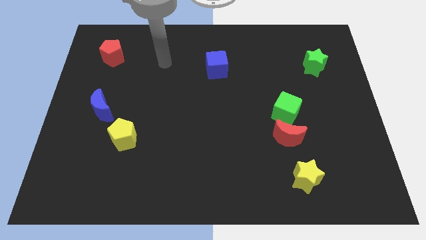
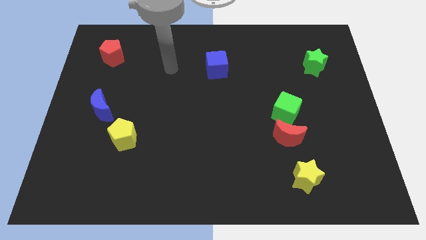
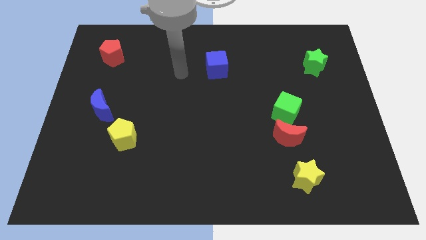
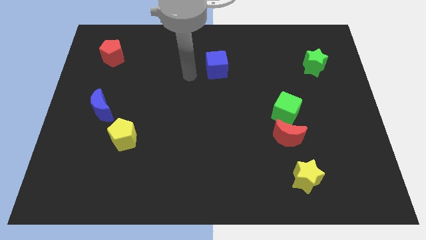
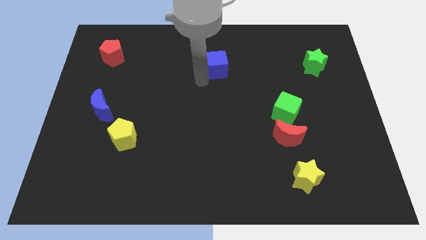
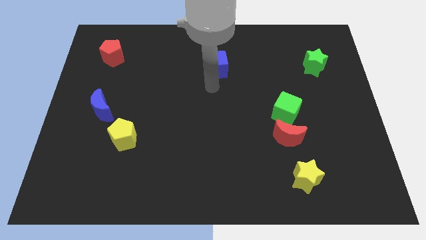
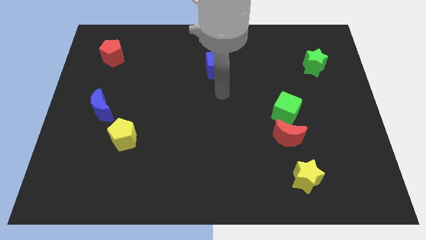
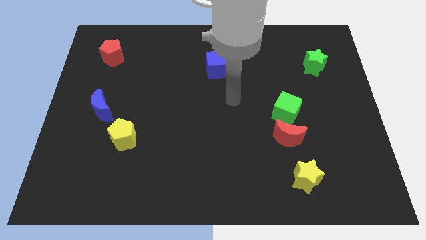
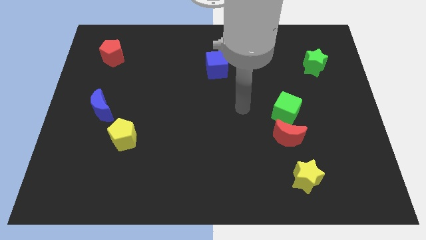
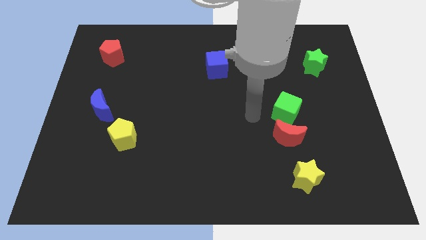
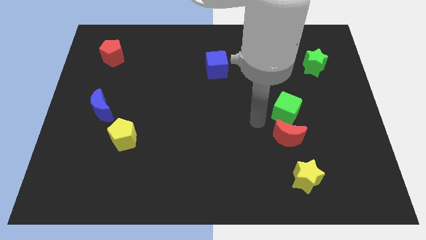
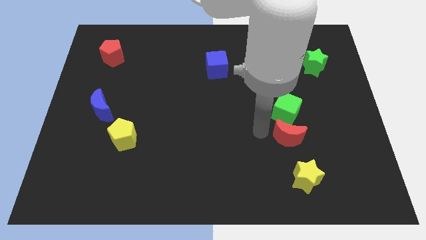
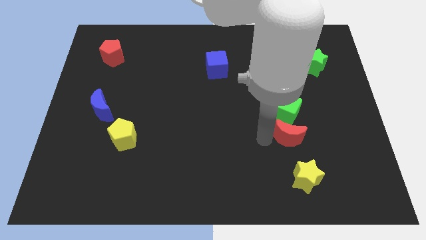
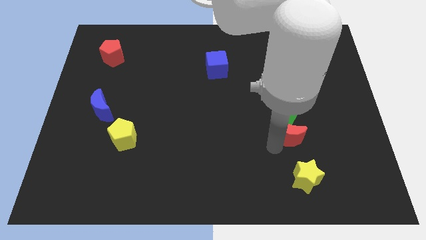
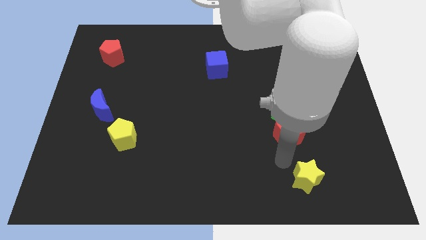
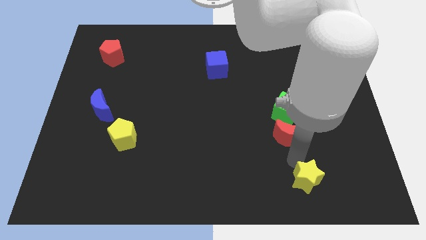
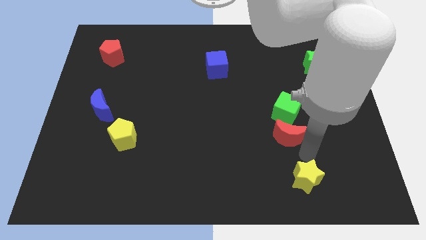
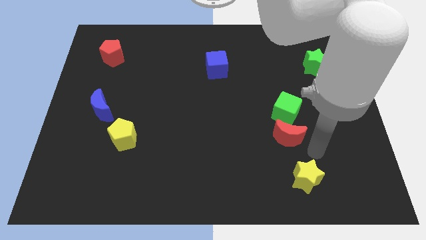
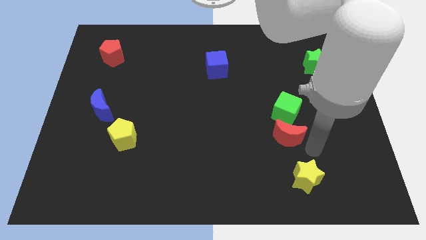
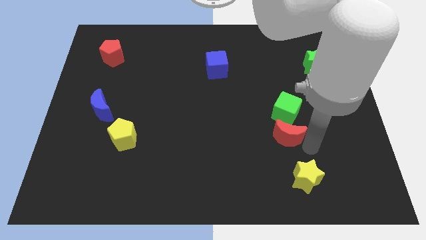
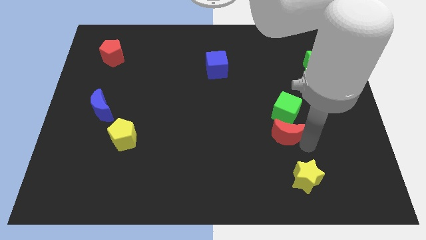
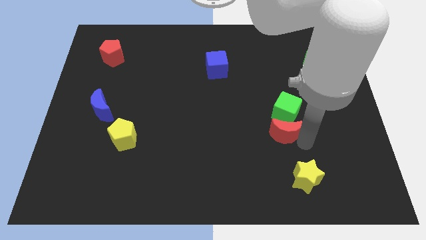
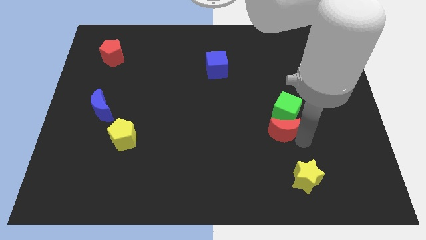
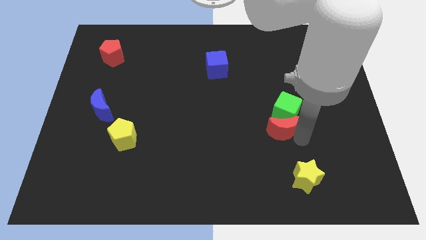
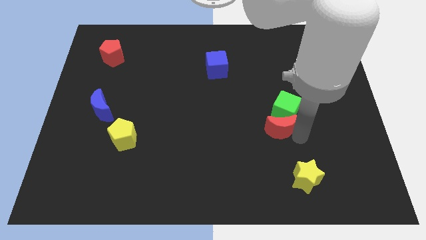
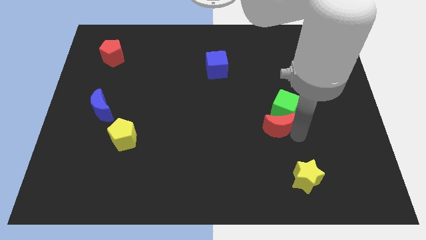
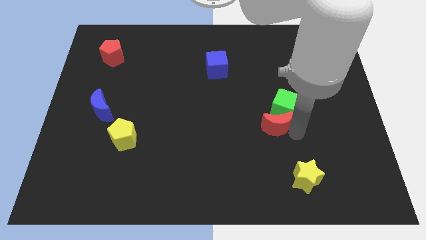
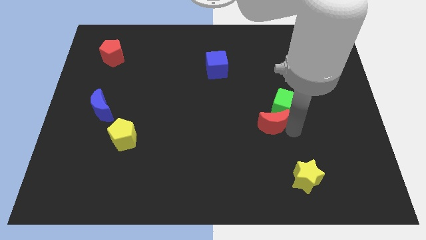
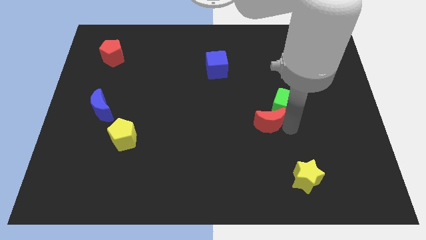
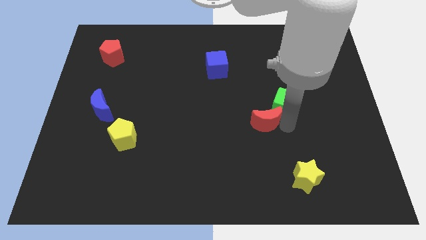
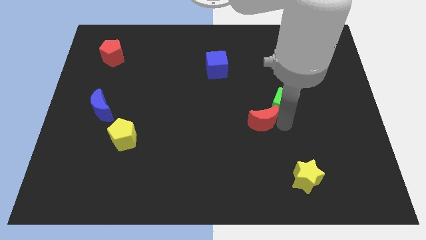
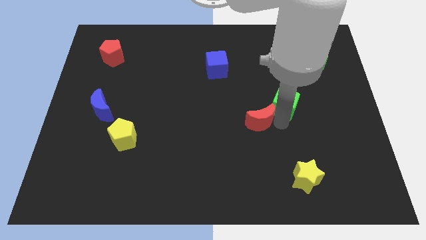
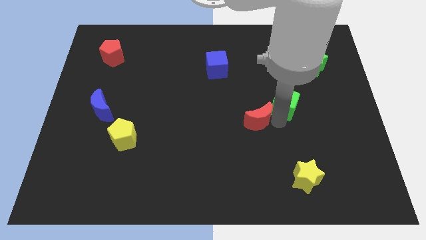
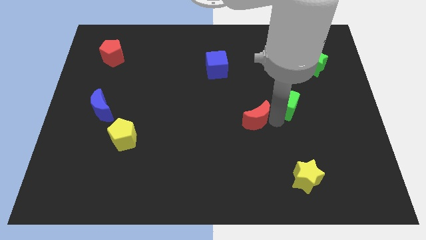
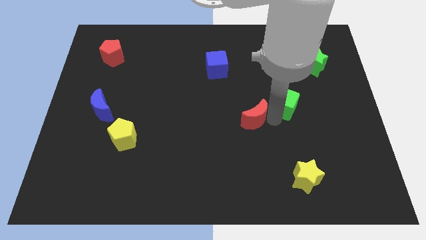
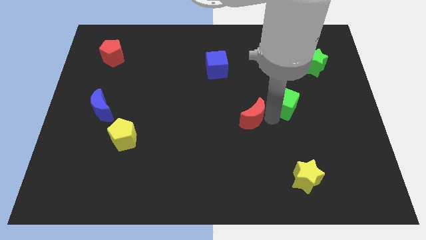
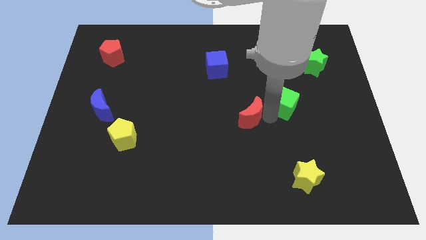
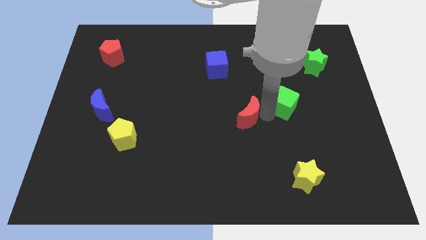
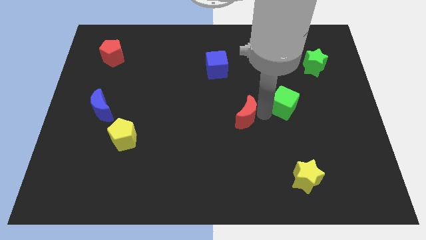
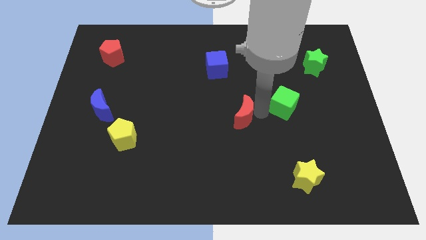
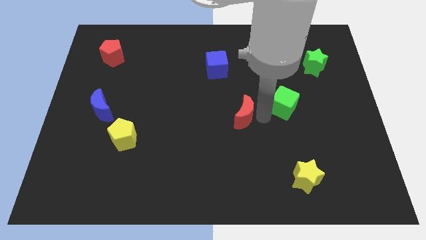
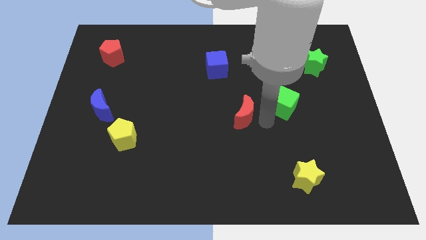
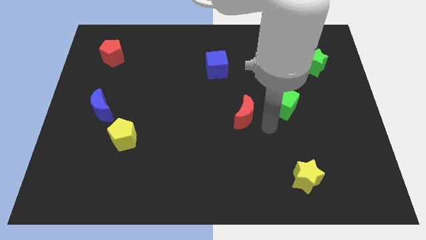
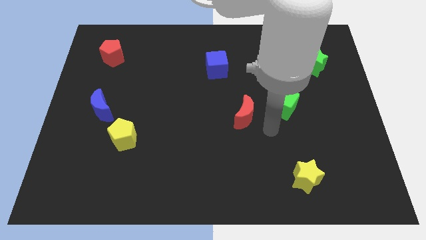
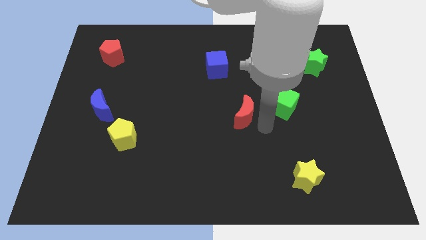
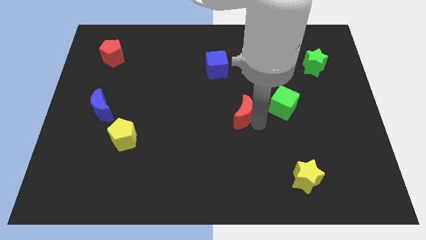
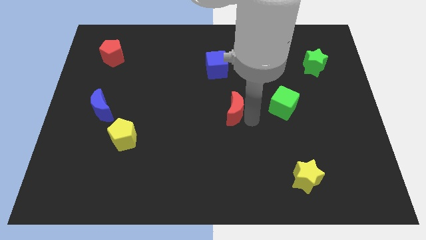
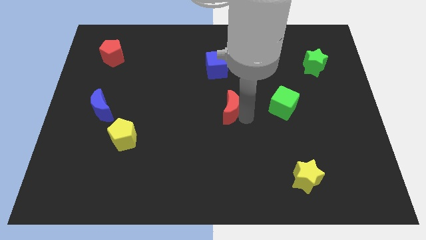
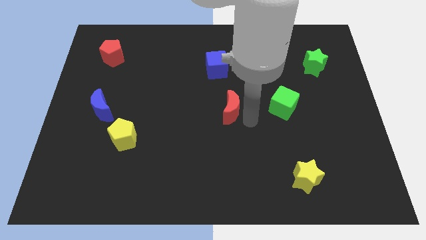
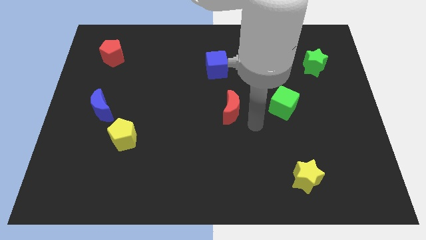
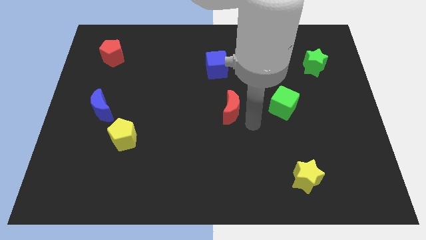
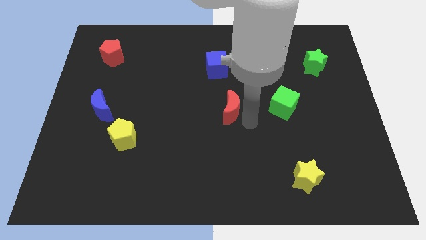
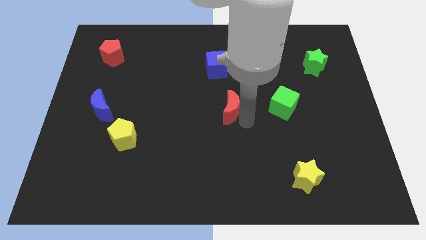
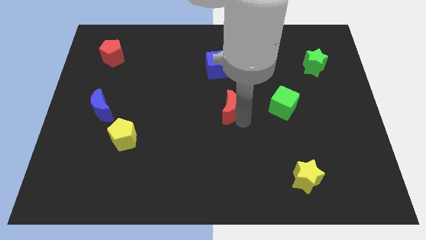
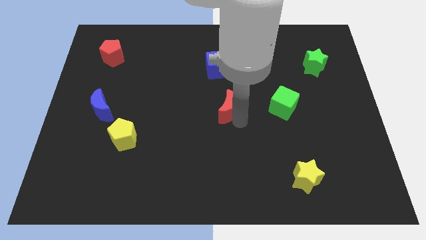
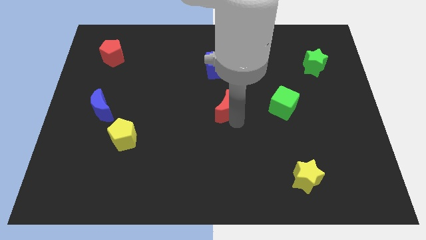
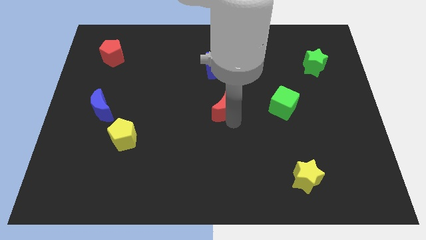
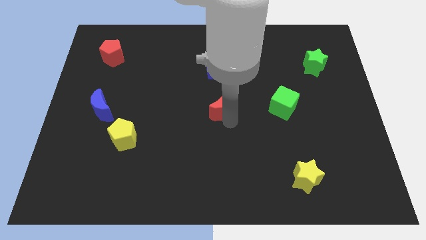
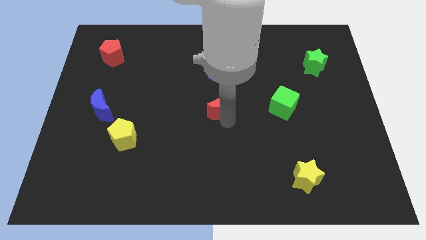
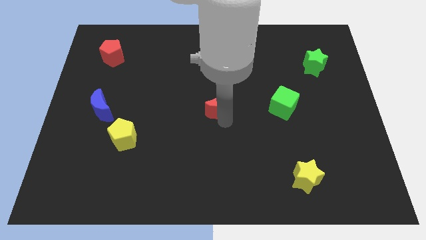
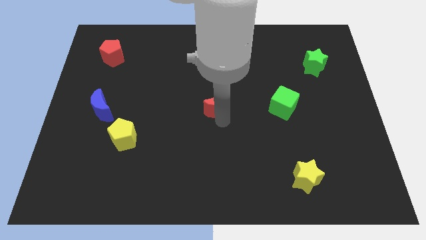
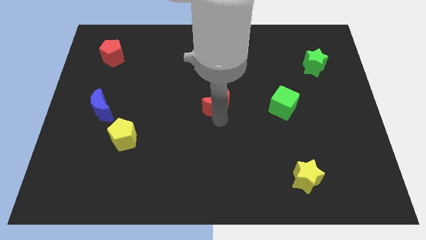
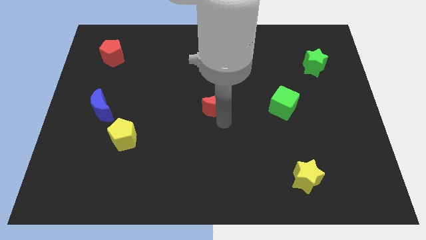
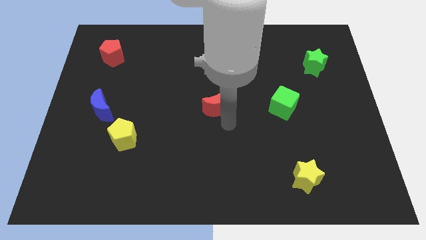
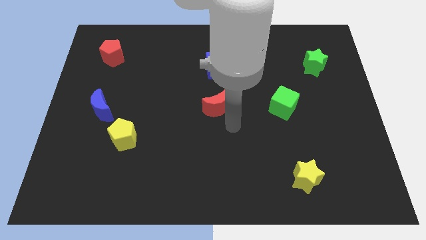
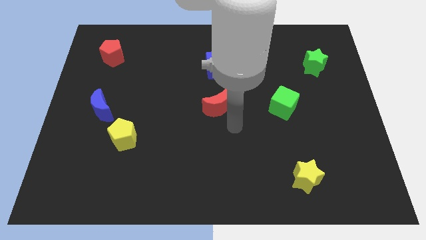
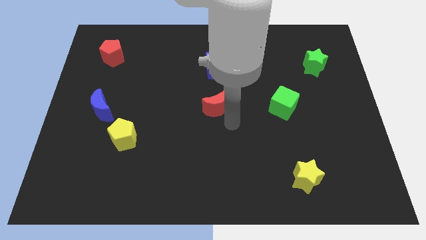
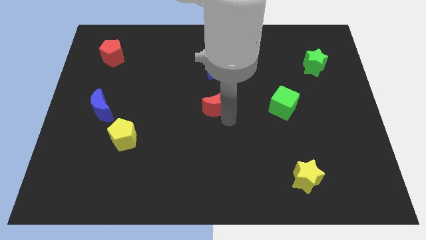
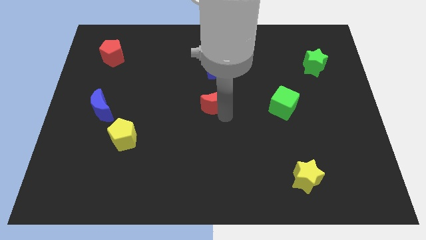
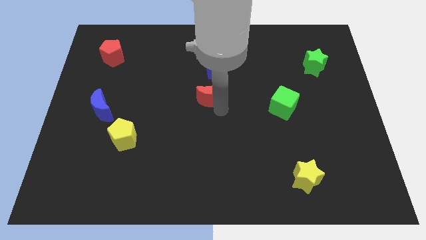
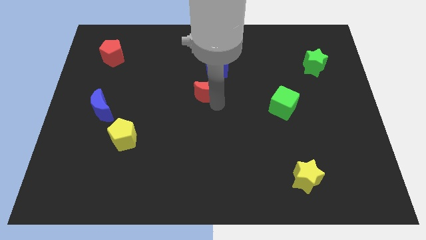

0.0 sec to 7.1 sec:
move the red moon diagonally down and to the left of the blue cube
